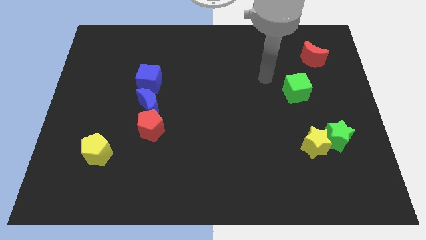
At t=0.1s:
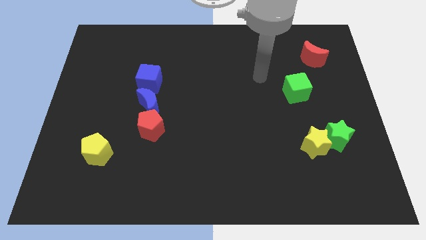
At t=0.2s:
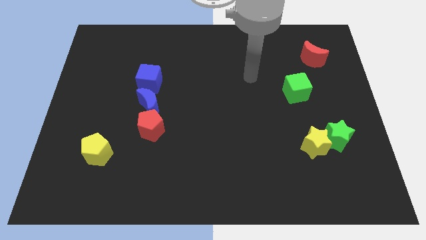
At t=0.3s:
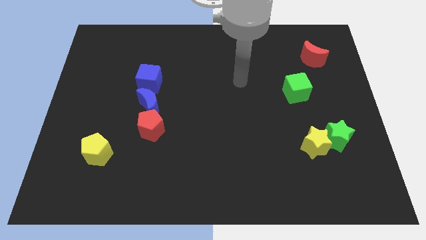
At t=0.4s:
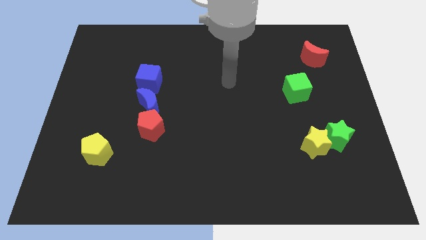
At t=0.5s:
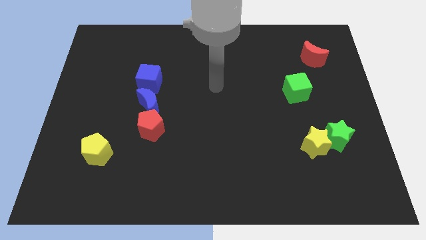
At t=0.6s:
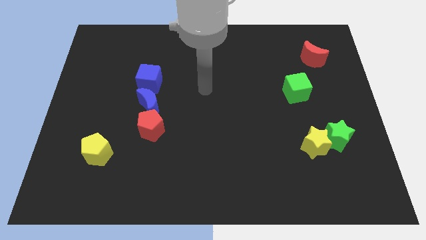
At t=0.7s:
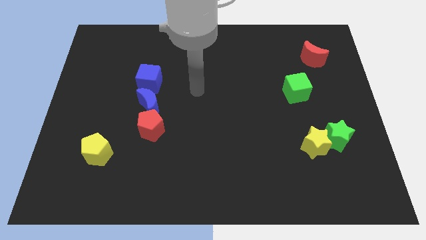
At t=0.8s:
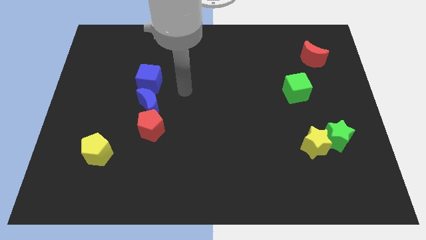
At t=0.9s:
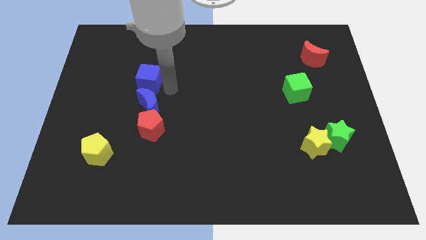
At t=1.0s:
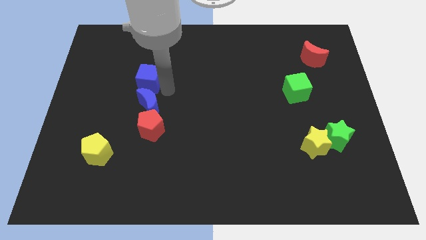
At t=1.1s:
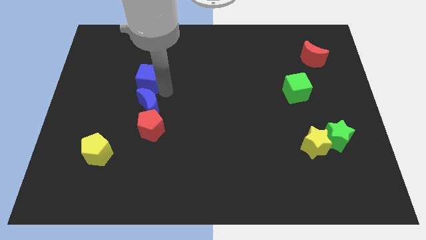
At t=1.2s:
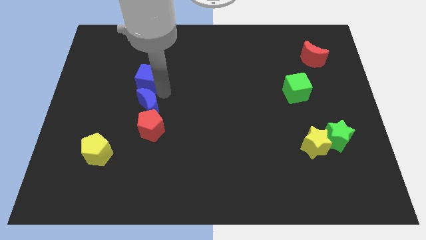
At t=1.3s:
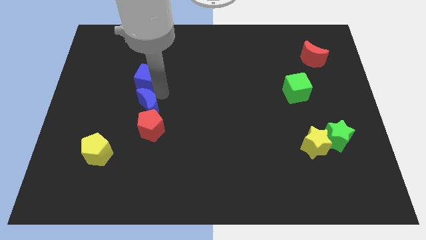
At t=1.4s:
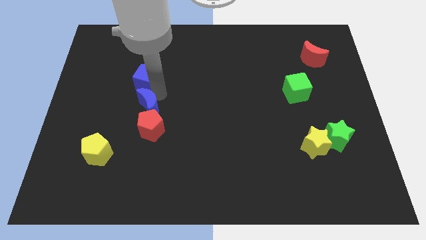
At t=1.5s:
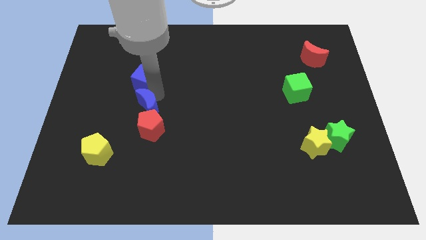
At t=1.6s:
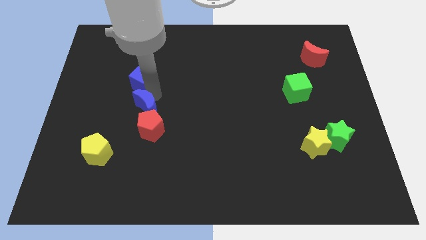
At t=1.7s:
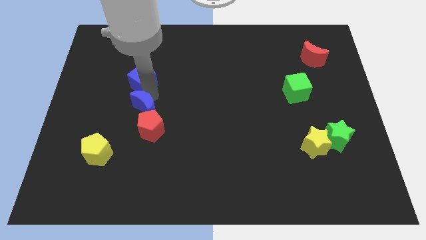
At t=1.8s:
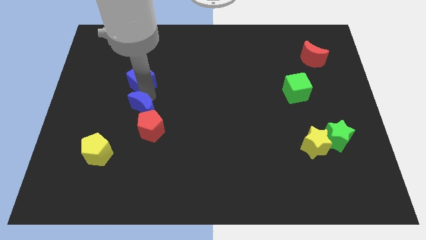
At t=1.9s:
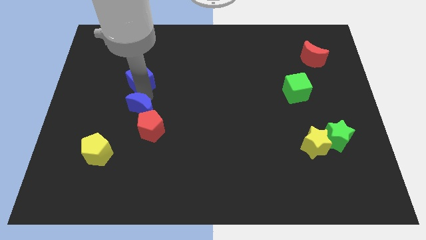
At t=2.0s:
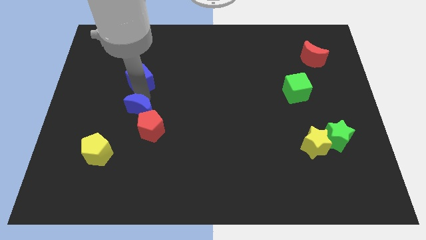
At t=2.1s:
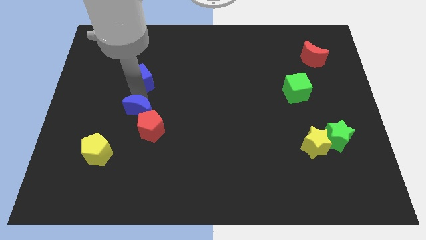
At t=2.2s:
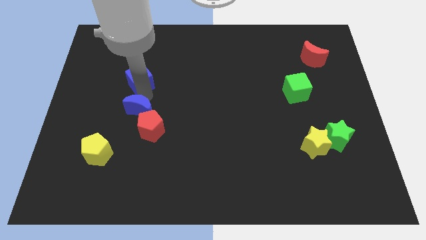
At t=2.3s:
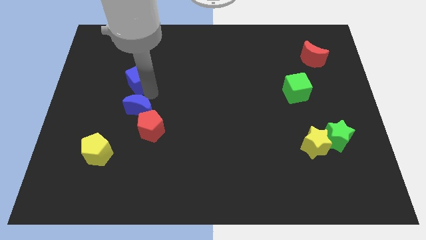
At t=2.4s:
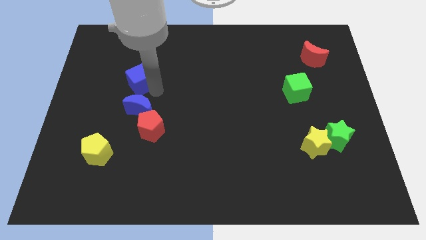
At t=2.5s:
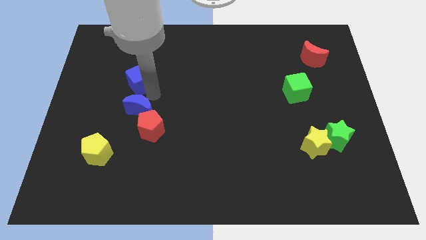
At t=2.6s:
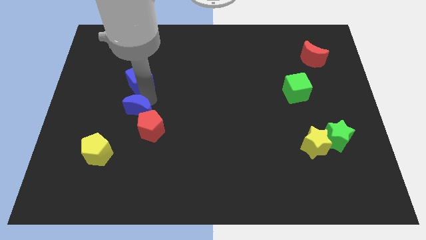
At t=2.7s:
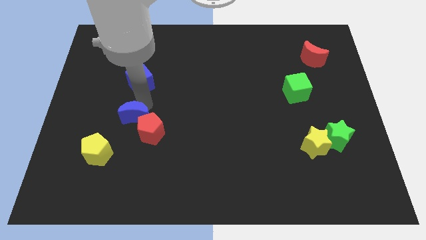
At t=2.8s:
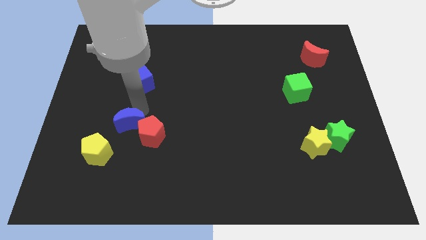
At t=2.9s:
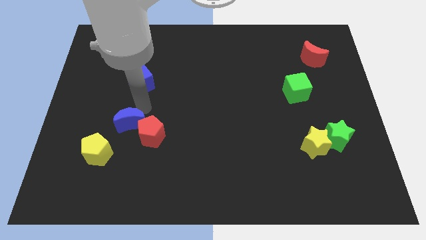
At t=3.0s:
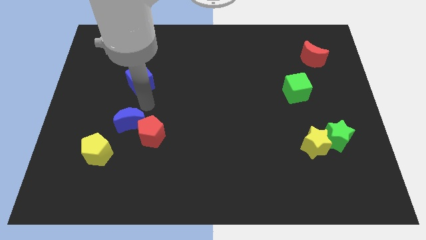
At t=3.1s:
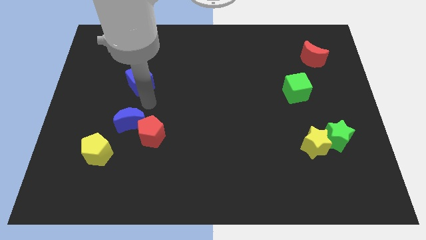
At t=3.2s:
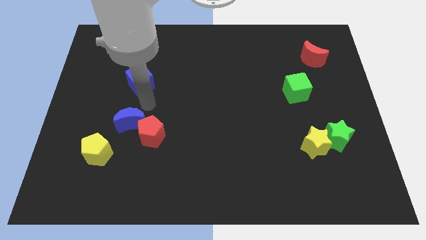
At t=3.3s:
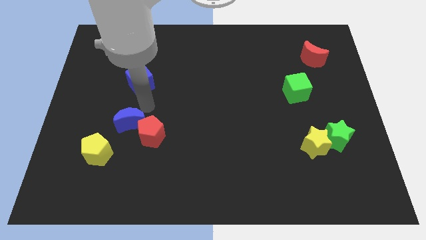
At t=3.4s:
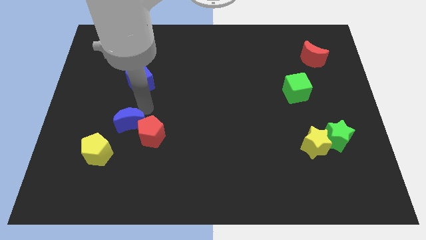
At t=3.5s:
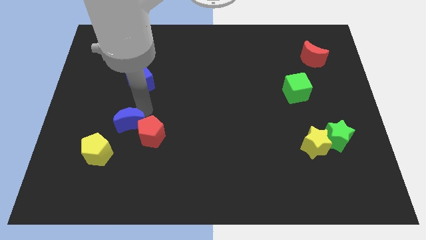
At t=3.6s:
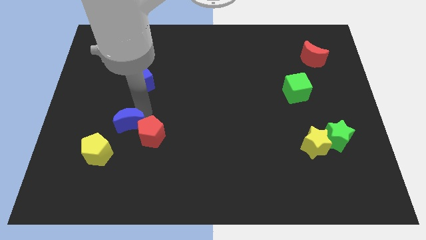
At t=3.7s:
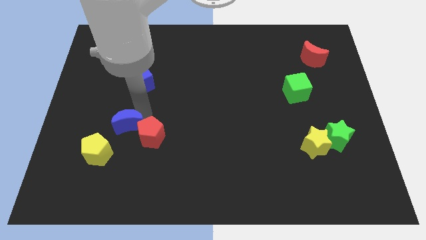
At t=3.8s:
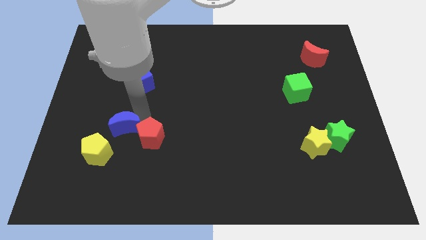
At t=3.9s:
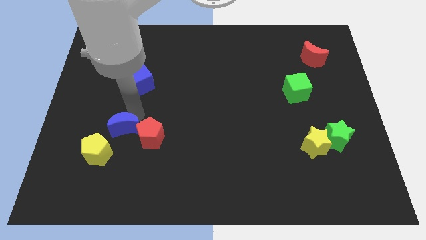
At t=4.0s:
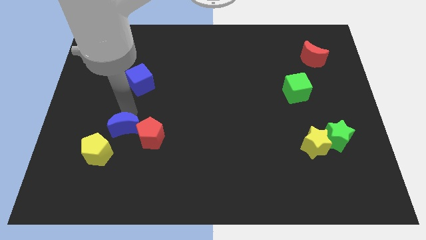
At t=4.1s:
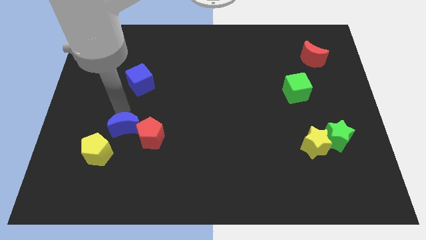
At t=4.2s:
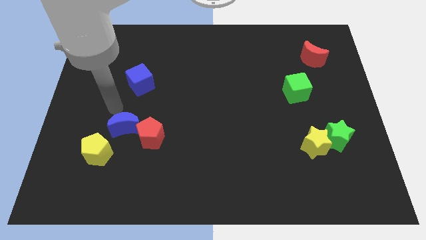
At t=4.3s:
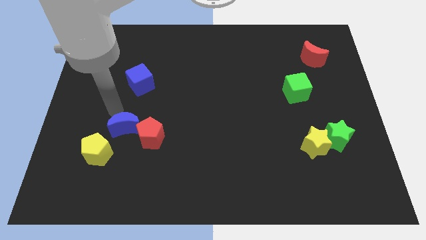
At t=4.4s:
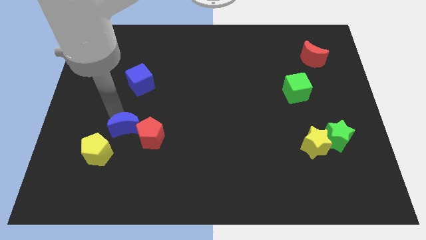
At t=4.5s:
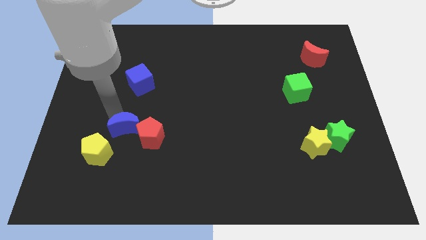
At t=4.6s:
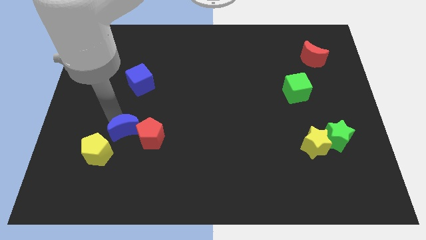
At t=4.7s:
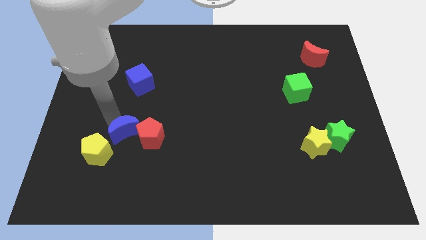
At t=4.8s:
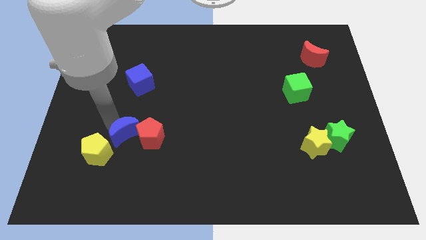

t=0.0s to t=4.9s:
slide the blue moon down a little bit

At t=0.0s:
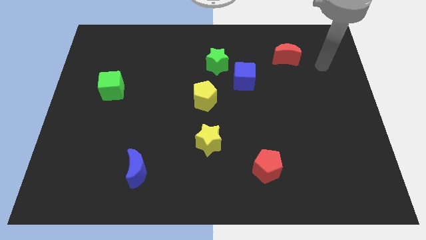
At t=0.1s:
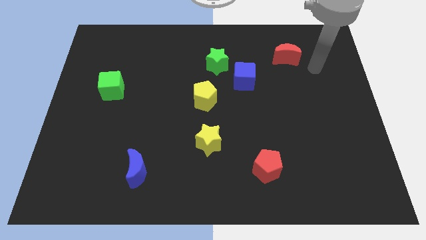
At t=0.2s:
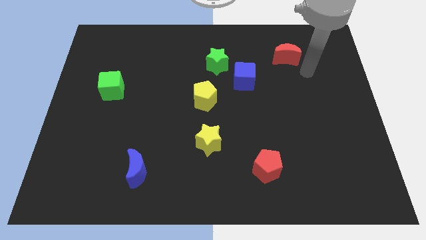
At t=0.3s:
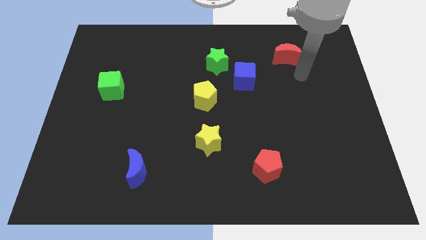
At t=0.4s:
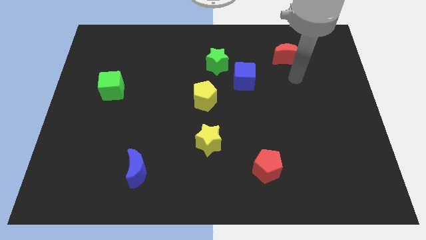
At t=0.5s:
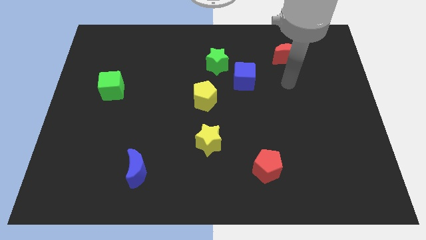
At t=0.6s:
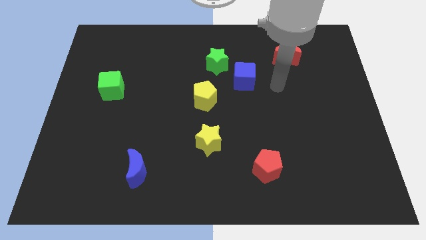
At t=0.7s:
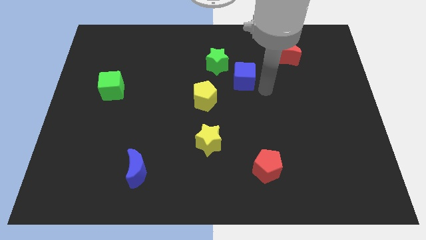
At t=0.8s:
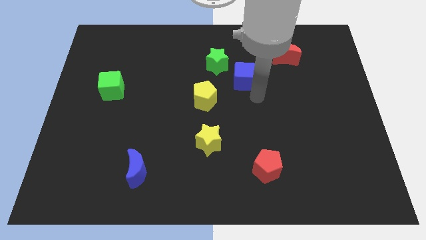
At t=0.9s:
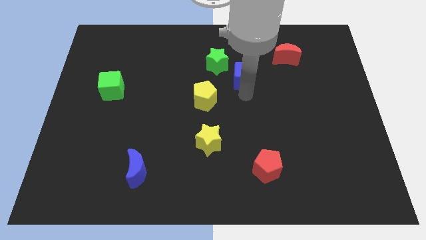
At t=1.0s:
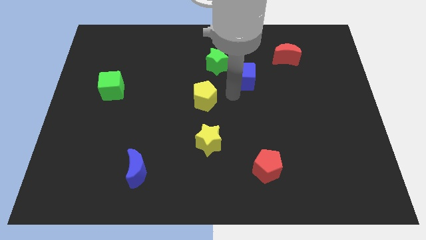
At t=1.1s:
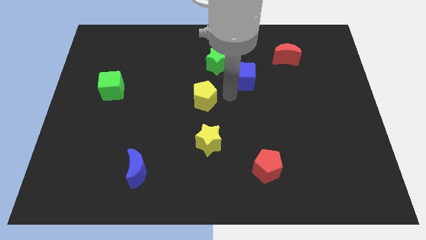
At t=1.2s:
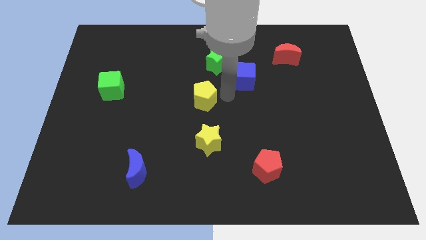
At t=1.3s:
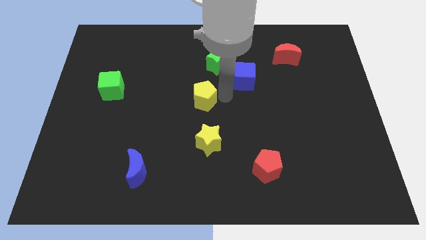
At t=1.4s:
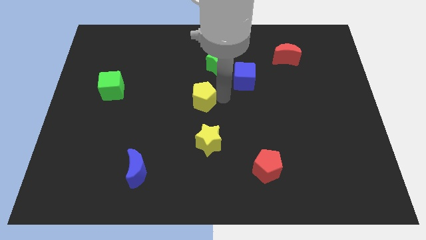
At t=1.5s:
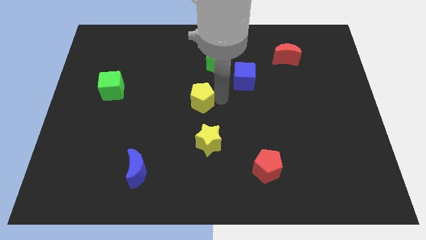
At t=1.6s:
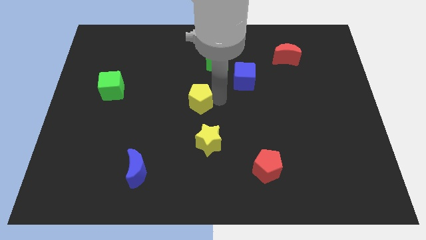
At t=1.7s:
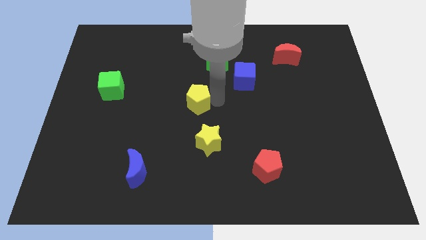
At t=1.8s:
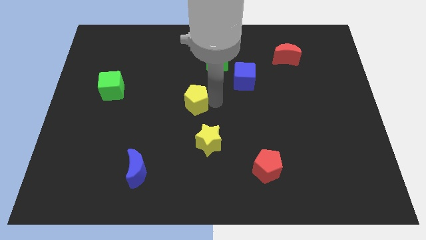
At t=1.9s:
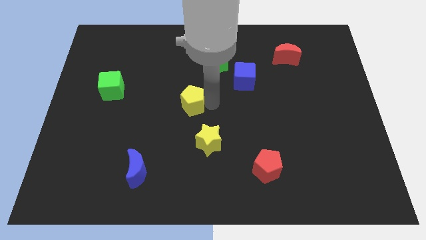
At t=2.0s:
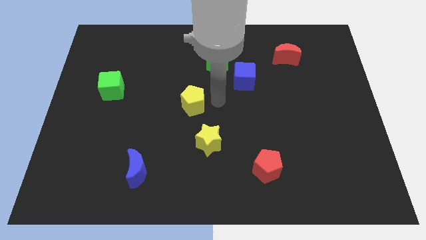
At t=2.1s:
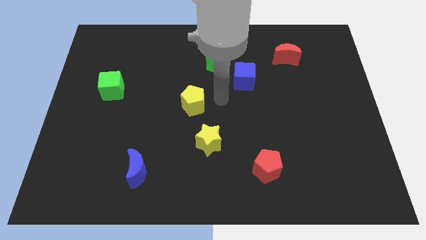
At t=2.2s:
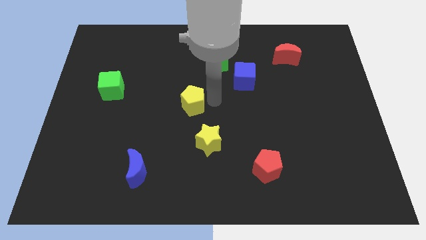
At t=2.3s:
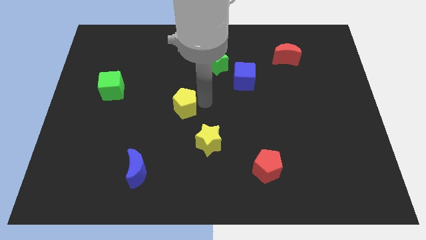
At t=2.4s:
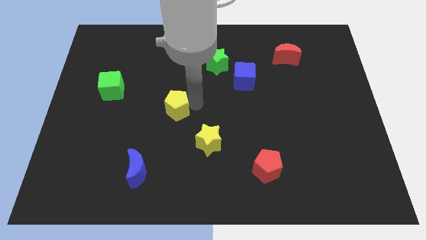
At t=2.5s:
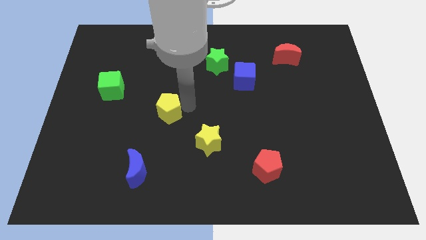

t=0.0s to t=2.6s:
slide the yellow pentagon a little left

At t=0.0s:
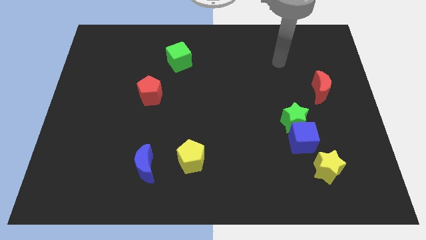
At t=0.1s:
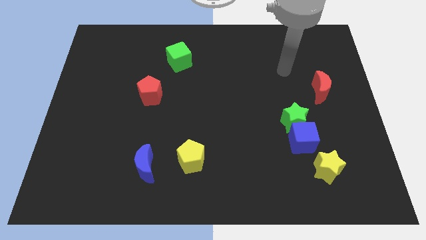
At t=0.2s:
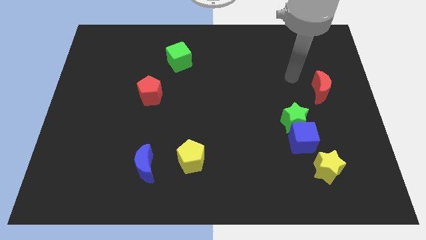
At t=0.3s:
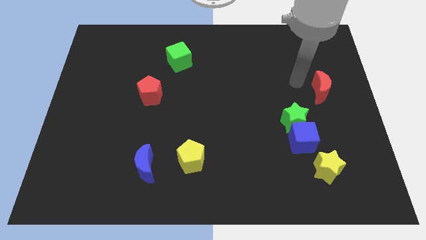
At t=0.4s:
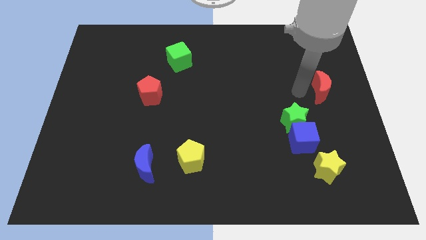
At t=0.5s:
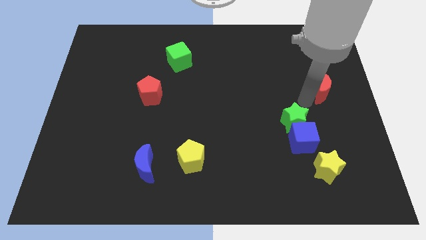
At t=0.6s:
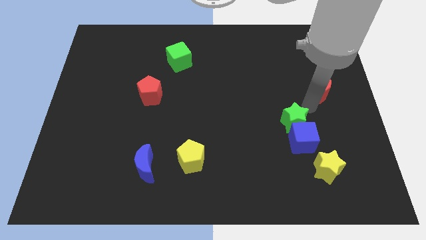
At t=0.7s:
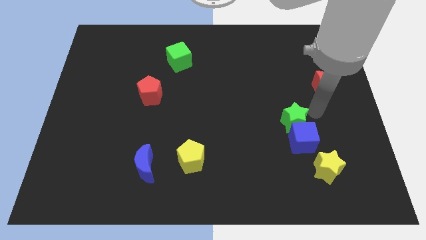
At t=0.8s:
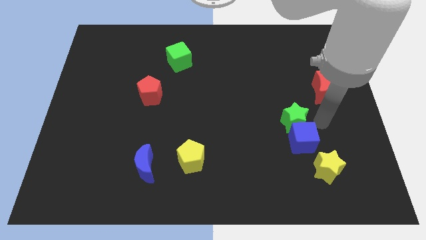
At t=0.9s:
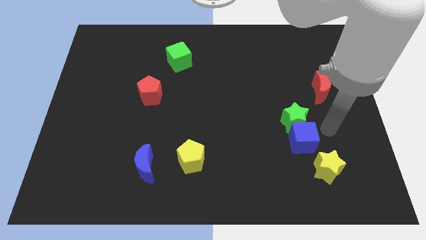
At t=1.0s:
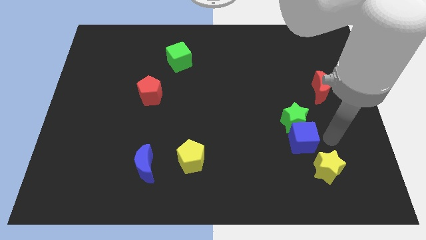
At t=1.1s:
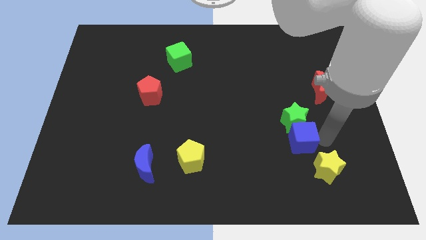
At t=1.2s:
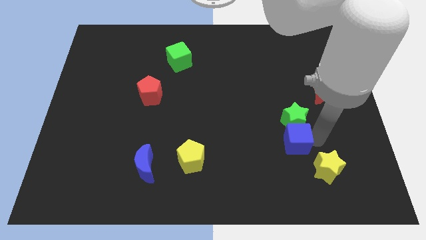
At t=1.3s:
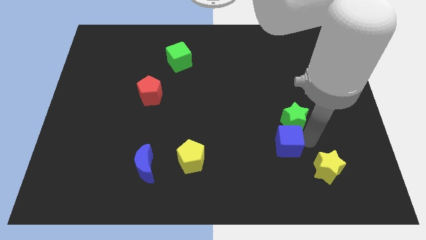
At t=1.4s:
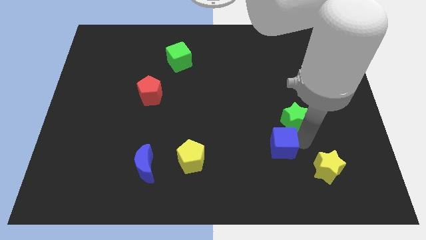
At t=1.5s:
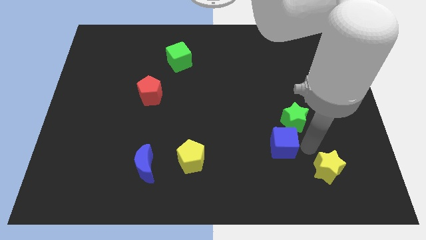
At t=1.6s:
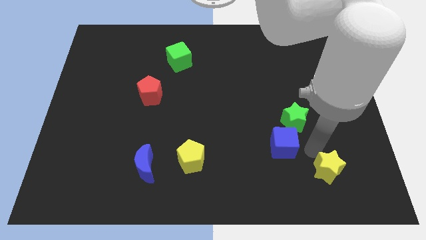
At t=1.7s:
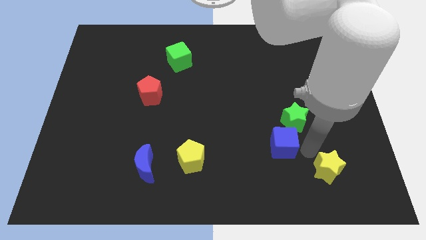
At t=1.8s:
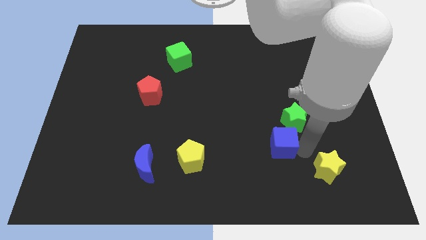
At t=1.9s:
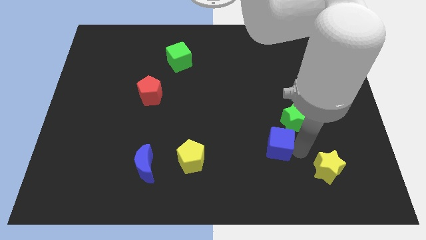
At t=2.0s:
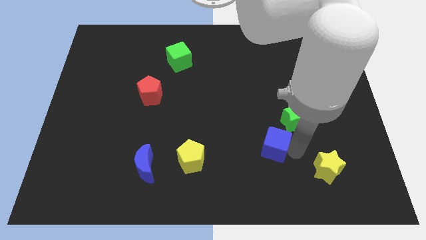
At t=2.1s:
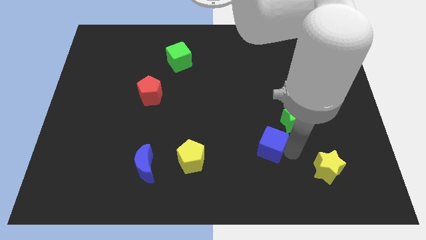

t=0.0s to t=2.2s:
slightly move the blue cube left
